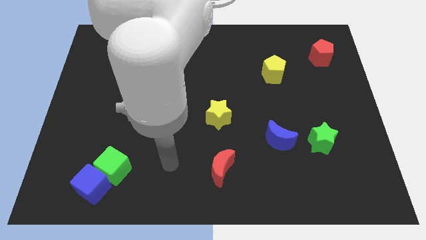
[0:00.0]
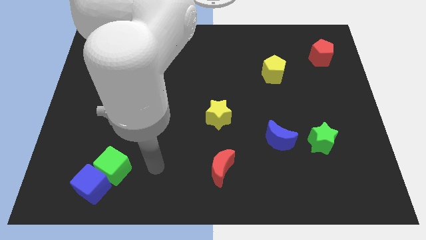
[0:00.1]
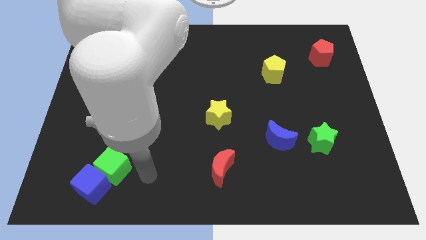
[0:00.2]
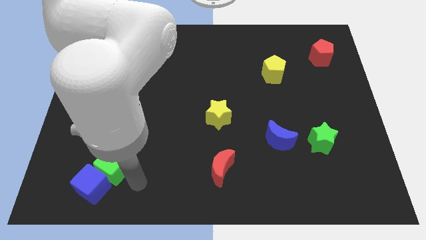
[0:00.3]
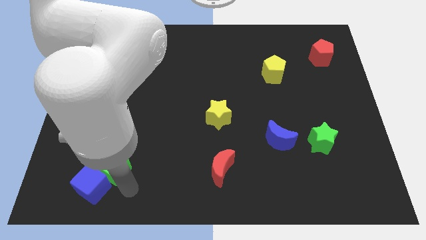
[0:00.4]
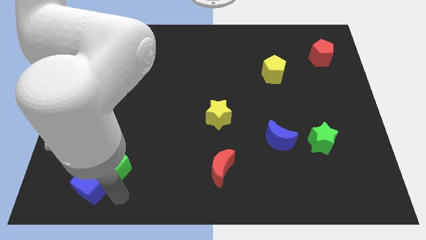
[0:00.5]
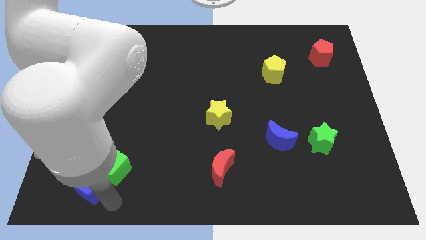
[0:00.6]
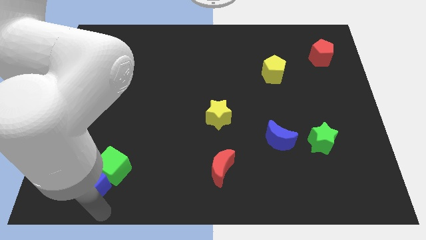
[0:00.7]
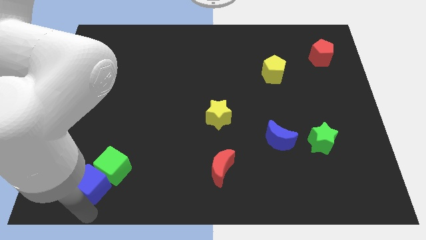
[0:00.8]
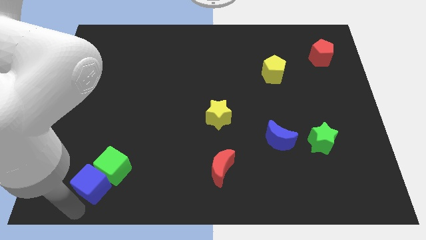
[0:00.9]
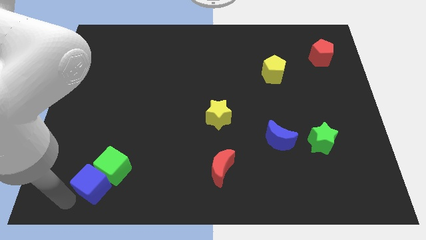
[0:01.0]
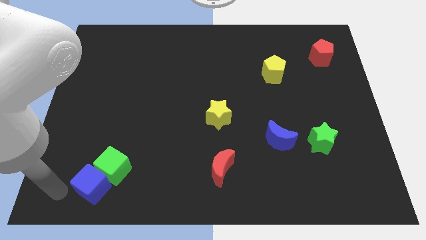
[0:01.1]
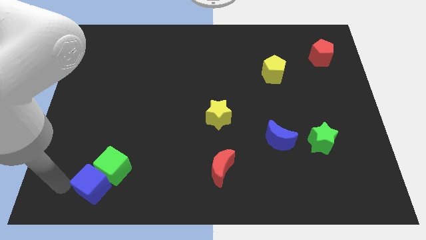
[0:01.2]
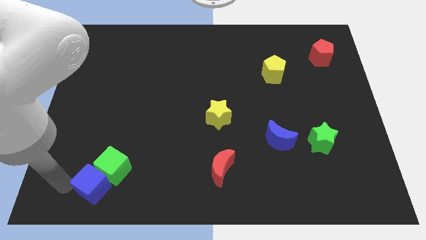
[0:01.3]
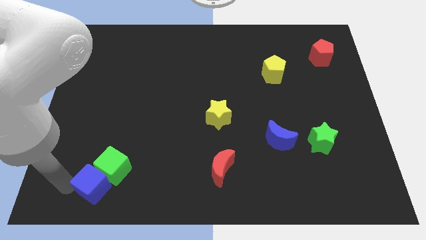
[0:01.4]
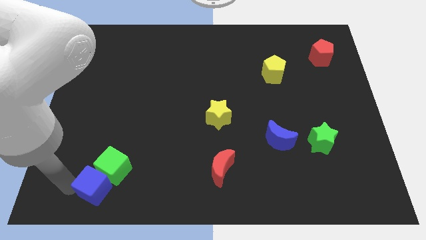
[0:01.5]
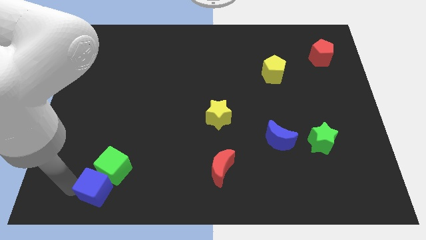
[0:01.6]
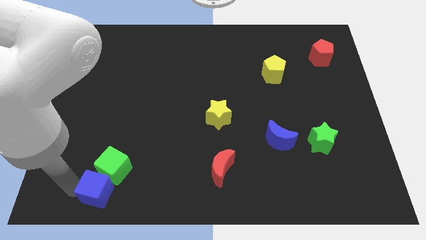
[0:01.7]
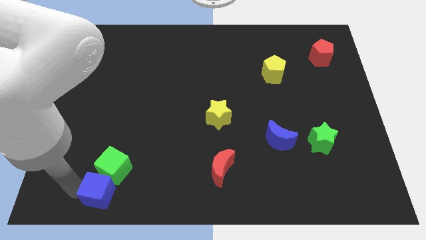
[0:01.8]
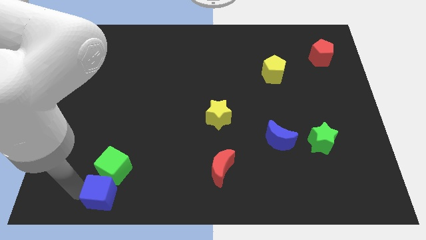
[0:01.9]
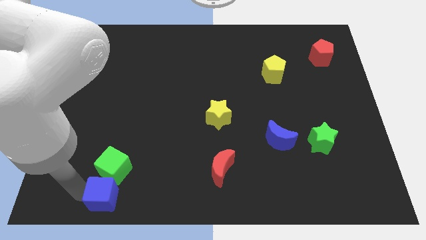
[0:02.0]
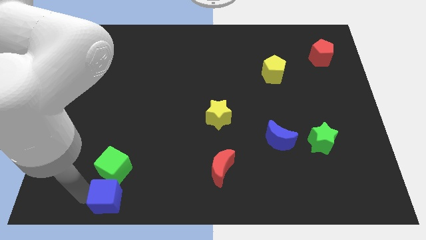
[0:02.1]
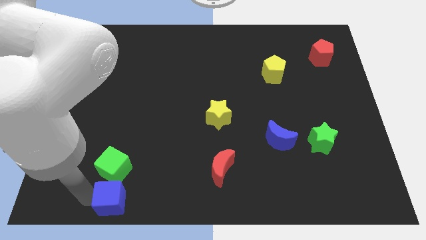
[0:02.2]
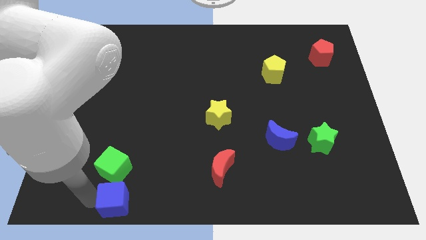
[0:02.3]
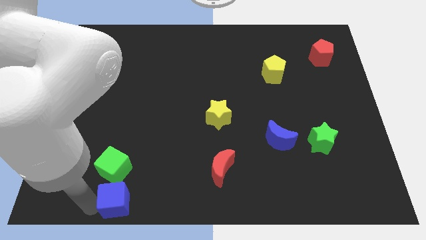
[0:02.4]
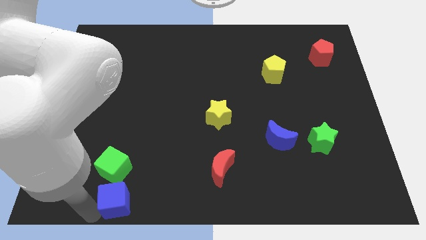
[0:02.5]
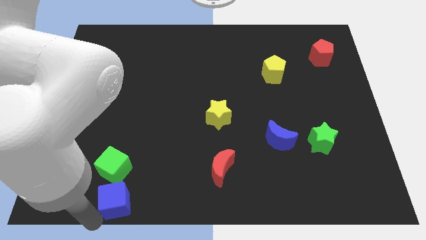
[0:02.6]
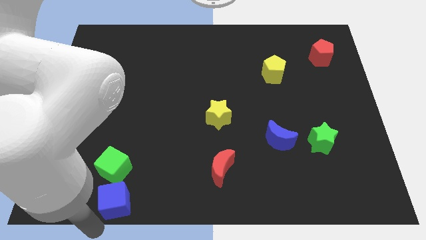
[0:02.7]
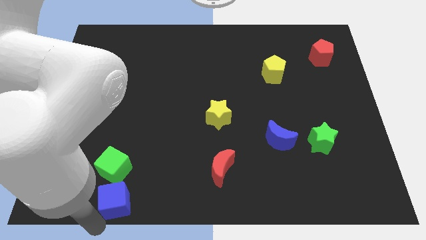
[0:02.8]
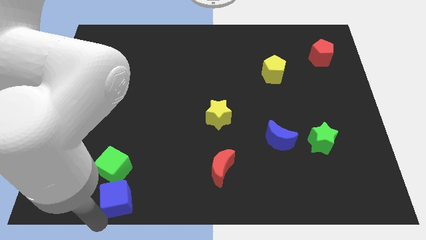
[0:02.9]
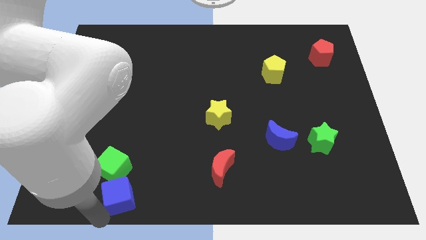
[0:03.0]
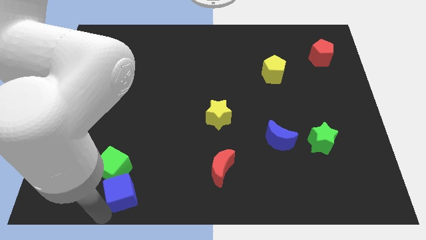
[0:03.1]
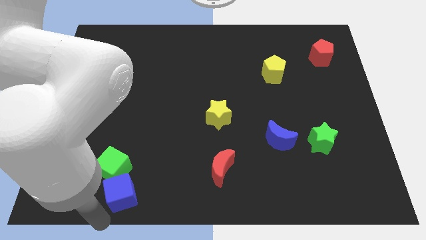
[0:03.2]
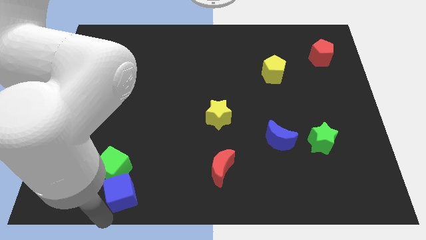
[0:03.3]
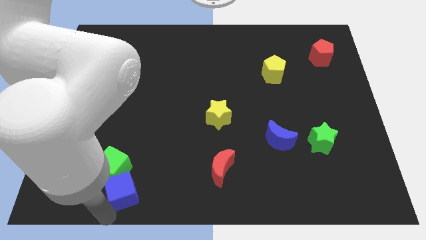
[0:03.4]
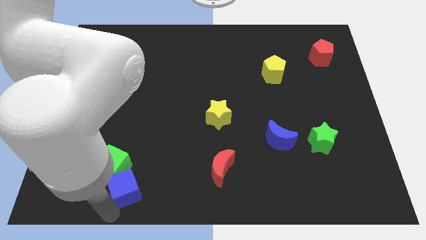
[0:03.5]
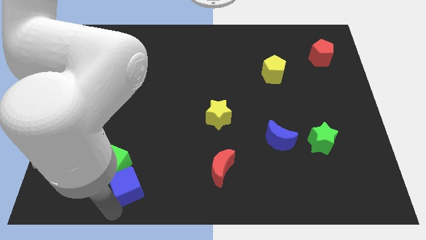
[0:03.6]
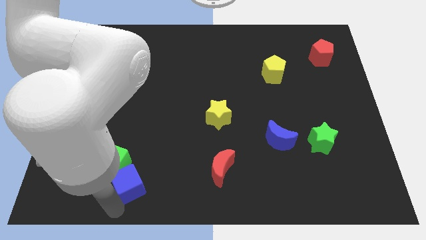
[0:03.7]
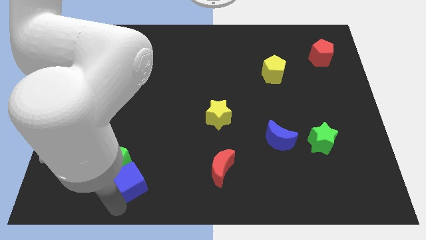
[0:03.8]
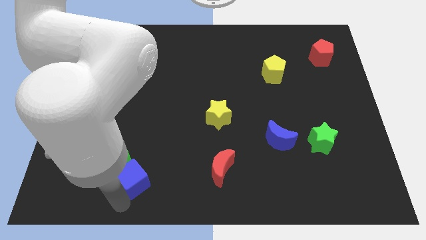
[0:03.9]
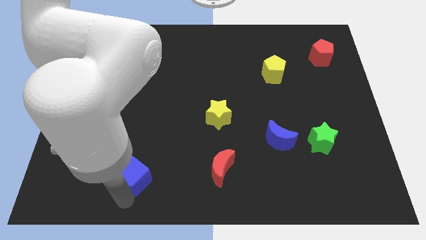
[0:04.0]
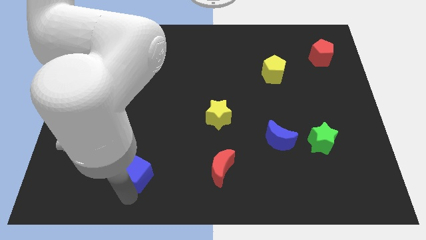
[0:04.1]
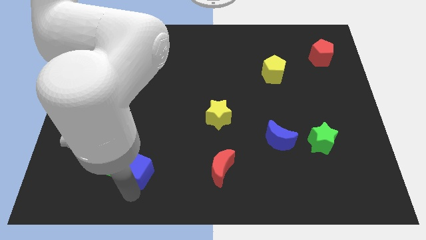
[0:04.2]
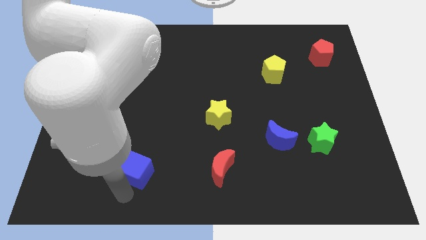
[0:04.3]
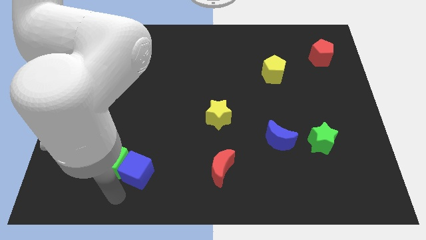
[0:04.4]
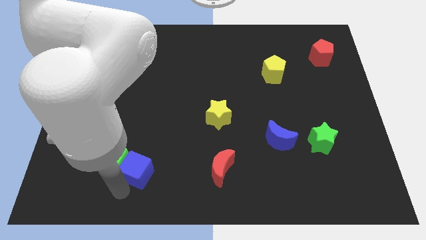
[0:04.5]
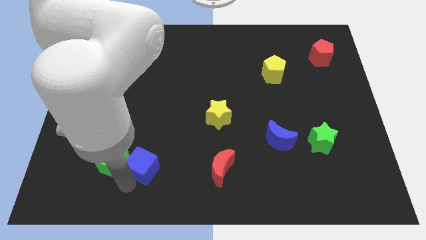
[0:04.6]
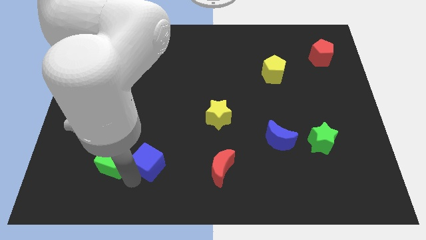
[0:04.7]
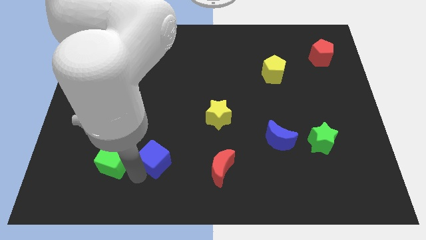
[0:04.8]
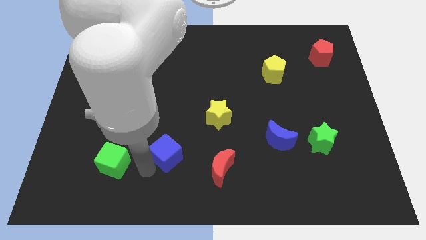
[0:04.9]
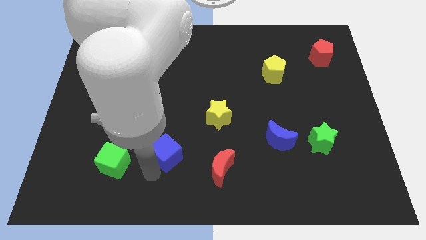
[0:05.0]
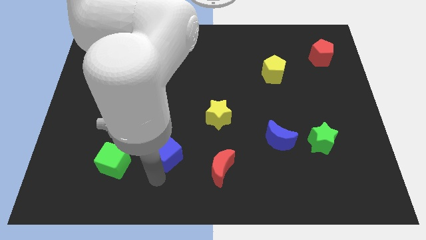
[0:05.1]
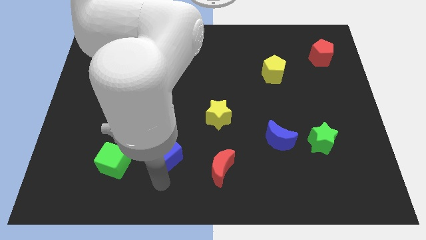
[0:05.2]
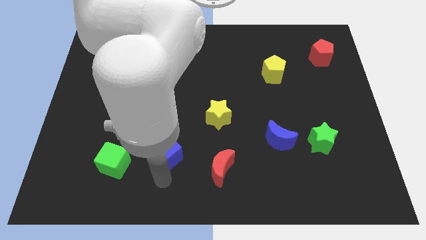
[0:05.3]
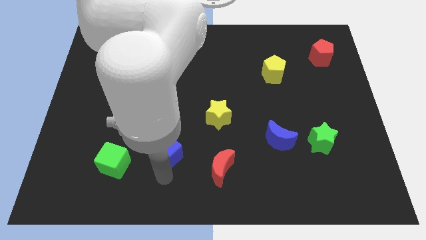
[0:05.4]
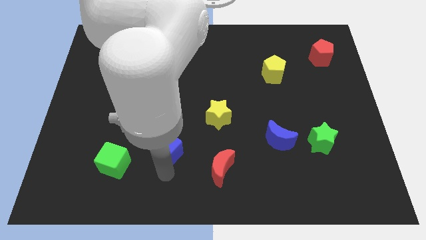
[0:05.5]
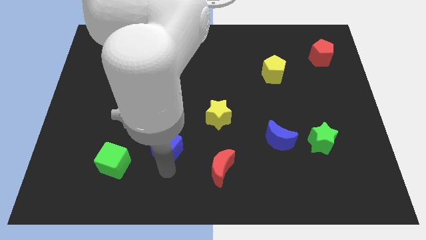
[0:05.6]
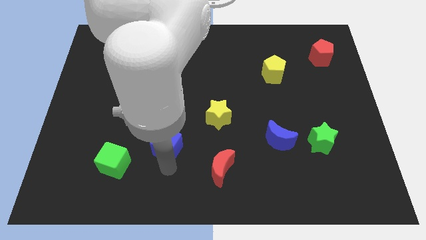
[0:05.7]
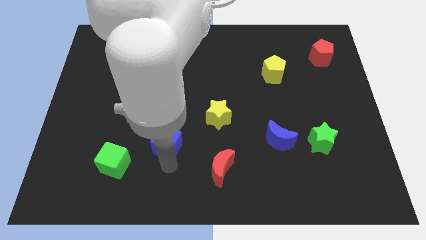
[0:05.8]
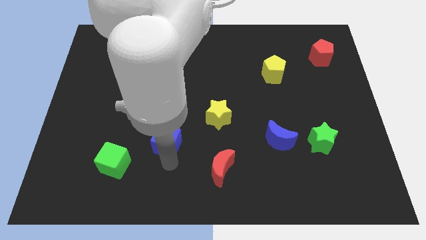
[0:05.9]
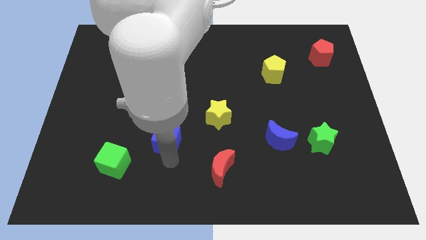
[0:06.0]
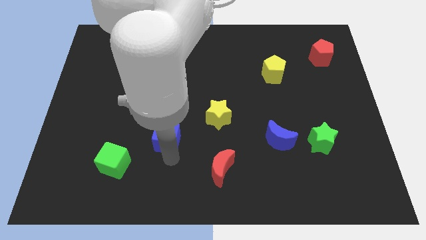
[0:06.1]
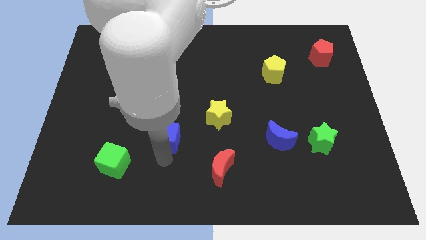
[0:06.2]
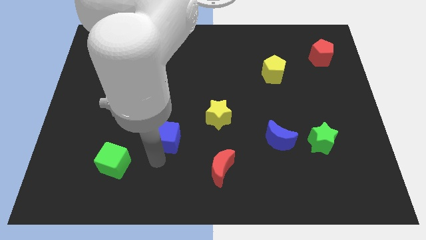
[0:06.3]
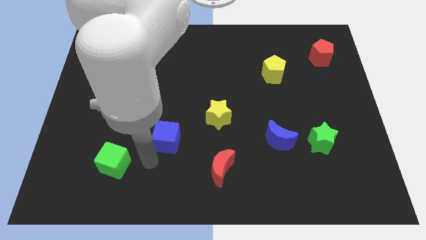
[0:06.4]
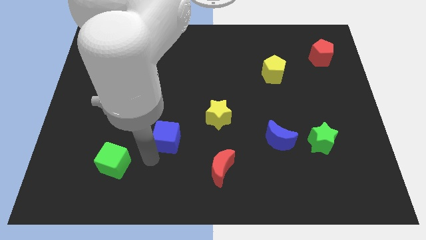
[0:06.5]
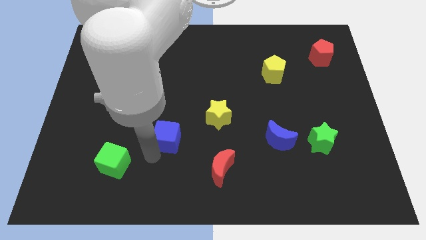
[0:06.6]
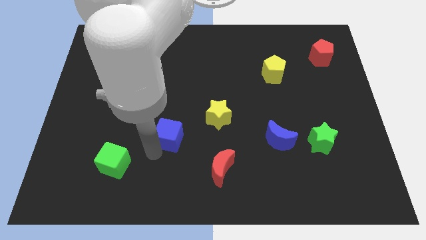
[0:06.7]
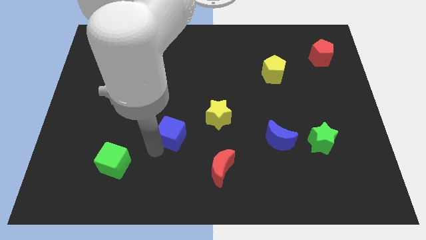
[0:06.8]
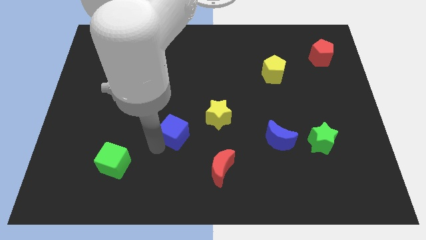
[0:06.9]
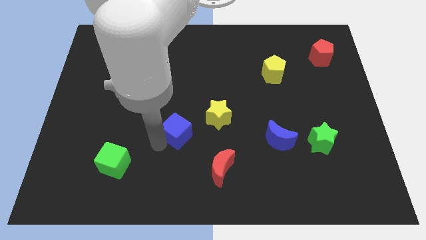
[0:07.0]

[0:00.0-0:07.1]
move the blue cube to the middle

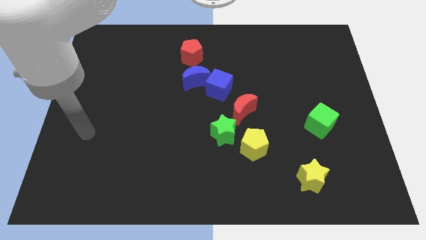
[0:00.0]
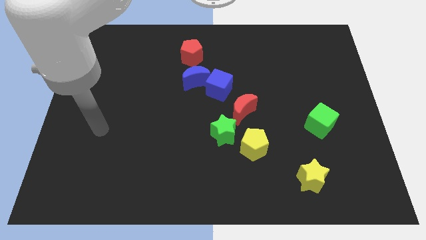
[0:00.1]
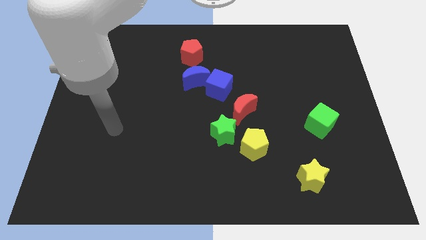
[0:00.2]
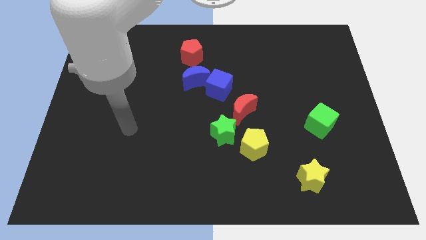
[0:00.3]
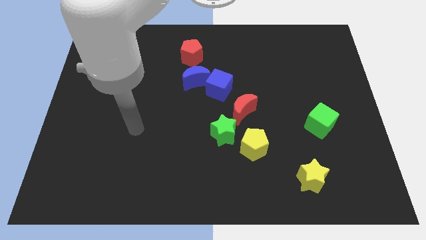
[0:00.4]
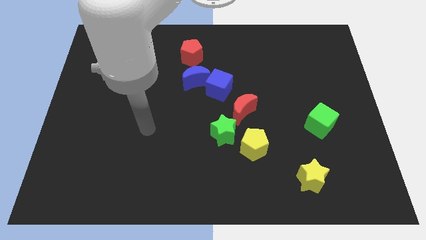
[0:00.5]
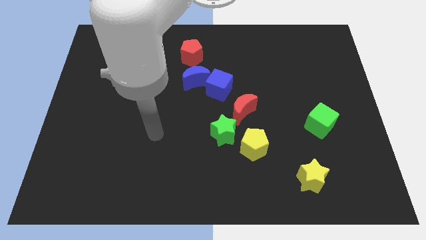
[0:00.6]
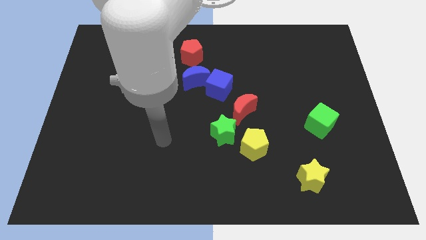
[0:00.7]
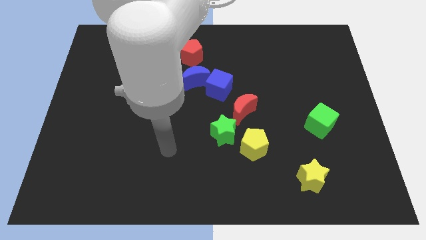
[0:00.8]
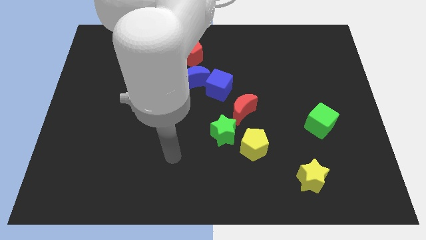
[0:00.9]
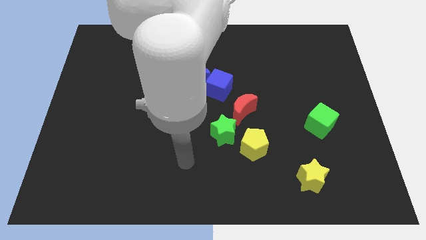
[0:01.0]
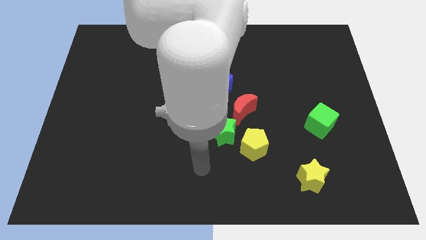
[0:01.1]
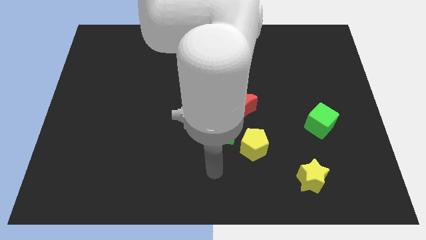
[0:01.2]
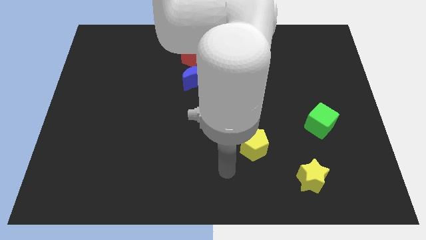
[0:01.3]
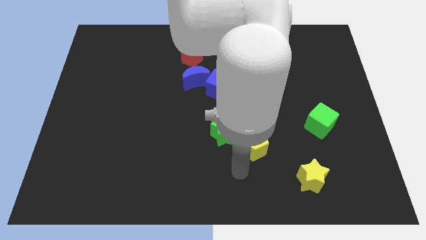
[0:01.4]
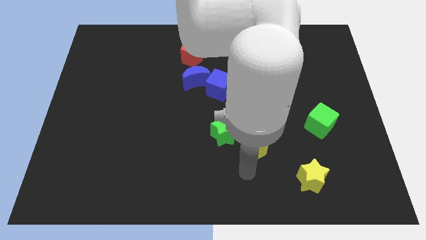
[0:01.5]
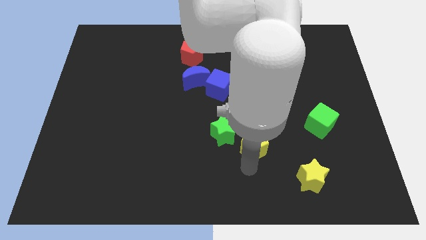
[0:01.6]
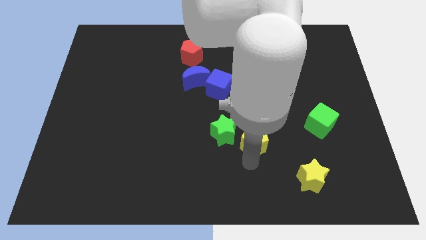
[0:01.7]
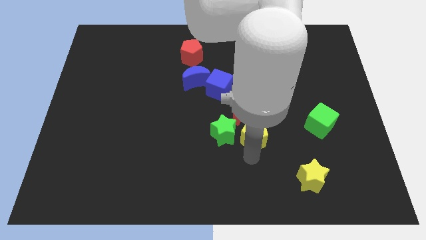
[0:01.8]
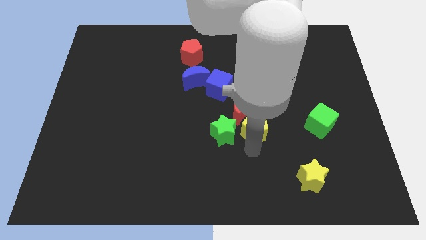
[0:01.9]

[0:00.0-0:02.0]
slide the yellow pentagon to the middle of the board
